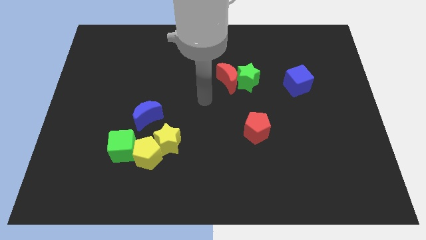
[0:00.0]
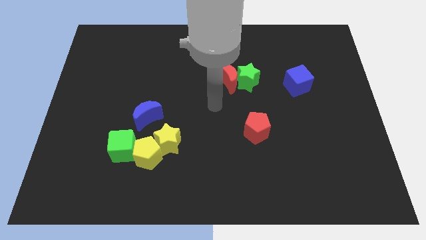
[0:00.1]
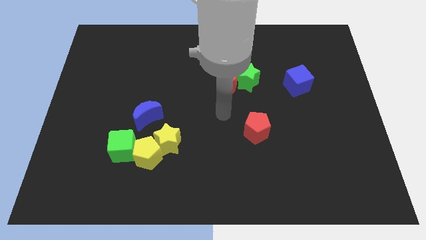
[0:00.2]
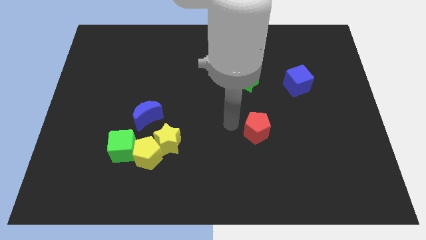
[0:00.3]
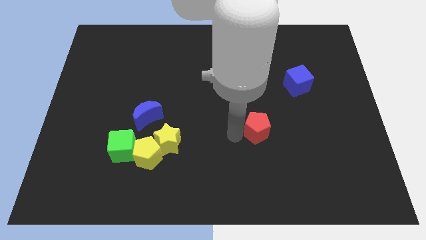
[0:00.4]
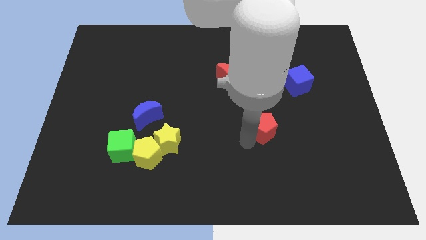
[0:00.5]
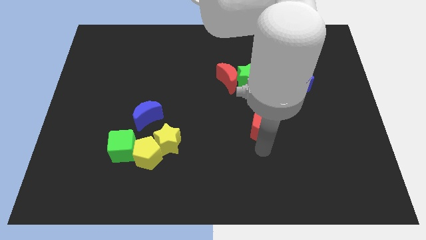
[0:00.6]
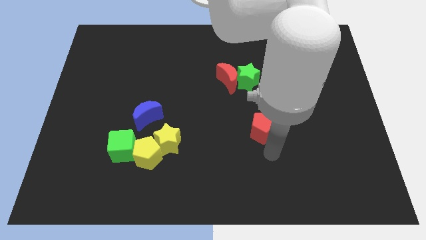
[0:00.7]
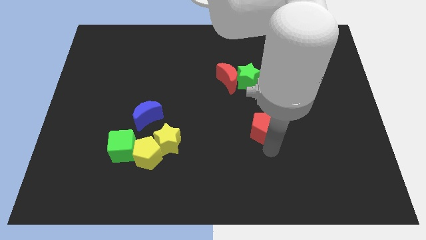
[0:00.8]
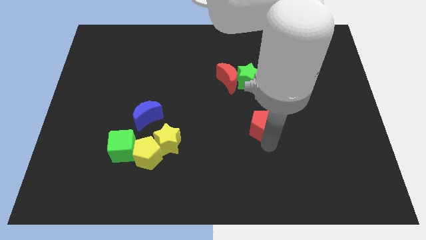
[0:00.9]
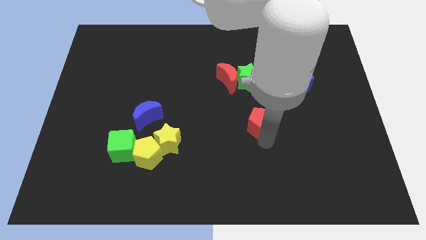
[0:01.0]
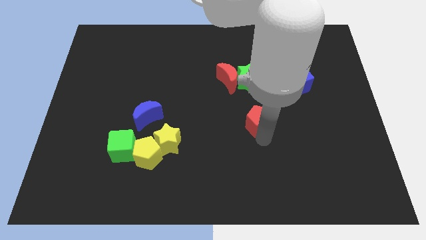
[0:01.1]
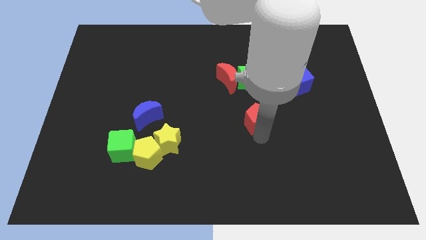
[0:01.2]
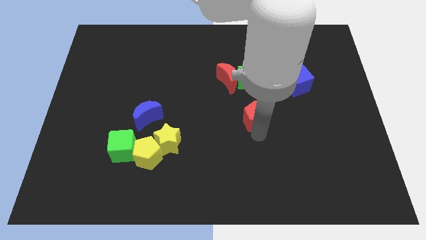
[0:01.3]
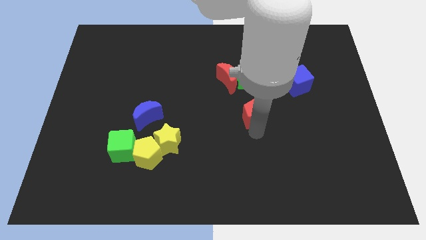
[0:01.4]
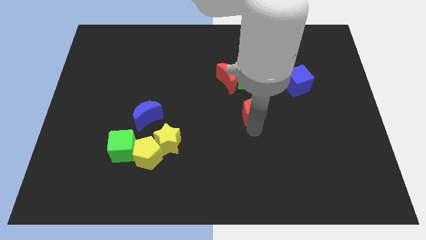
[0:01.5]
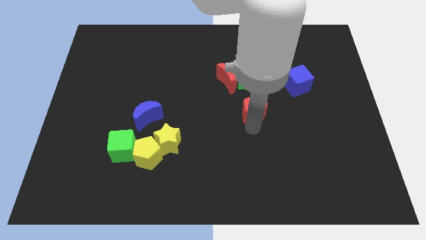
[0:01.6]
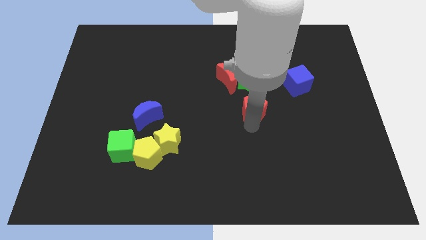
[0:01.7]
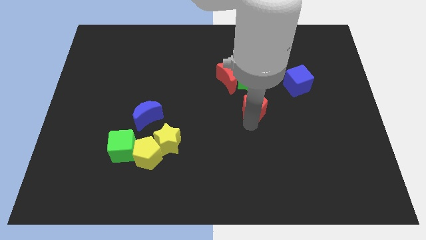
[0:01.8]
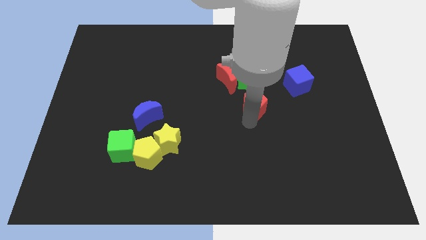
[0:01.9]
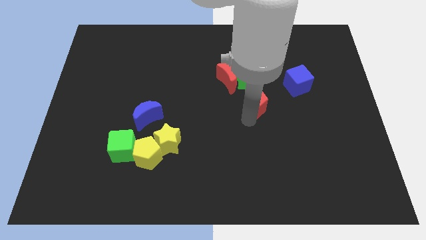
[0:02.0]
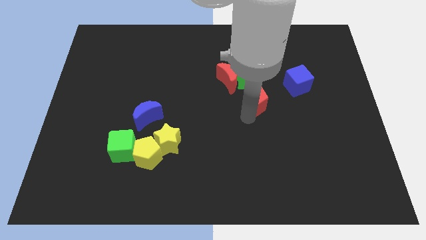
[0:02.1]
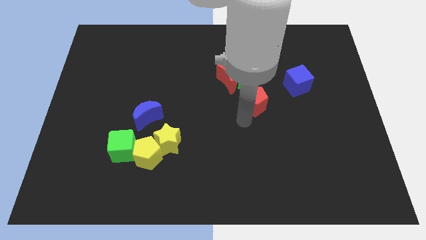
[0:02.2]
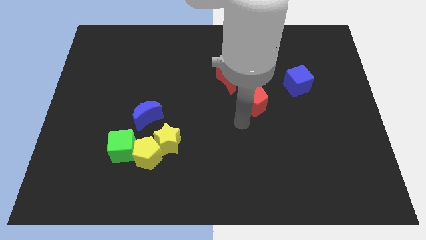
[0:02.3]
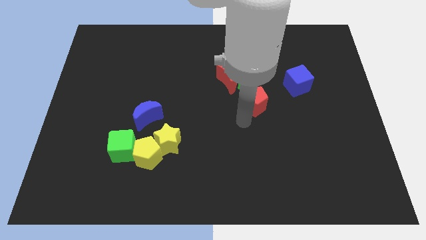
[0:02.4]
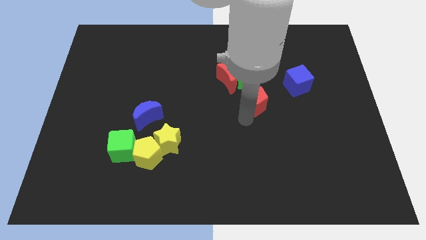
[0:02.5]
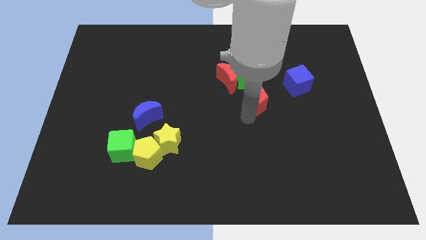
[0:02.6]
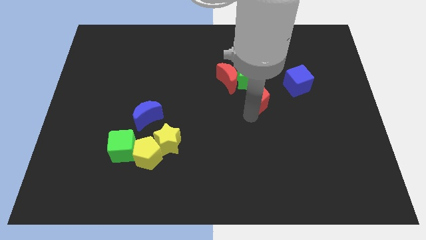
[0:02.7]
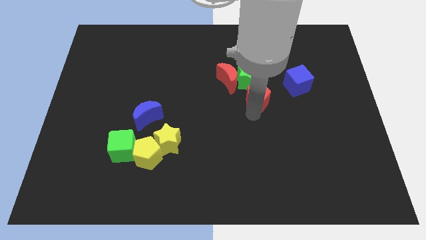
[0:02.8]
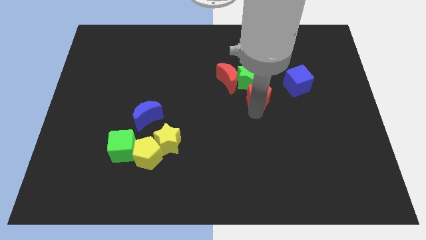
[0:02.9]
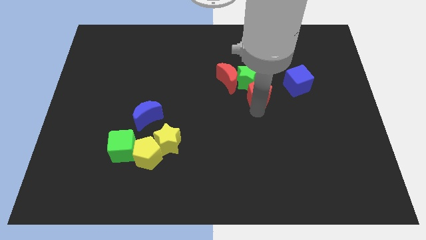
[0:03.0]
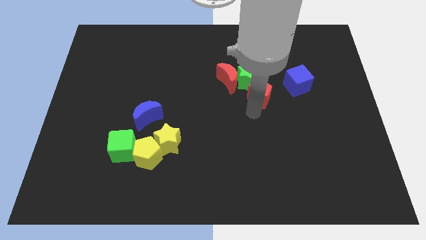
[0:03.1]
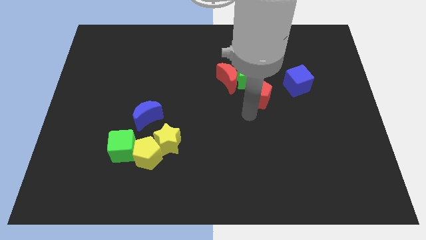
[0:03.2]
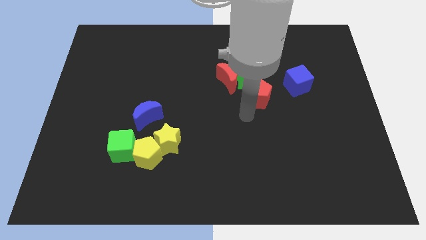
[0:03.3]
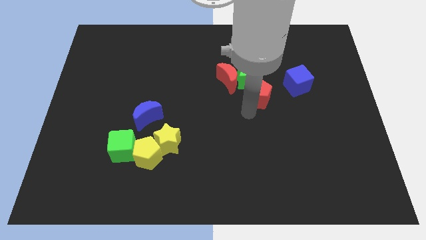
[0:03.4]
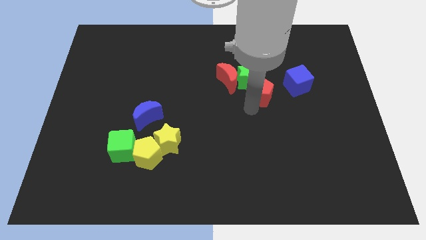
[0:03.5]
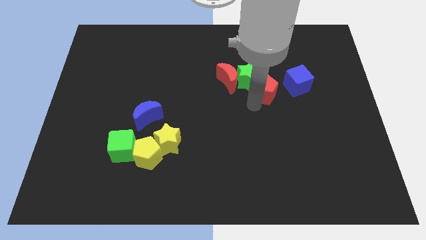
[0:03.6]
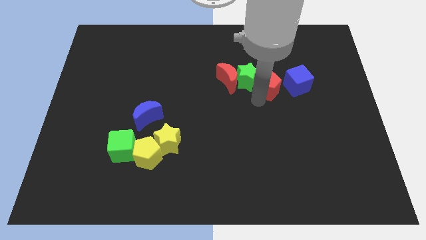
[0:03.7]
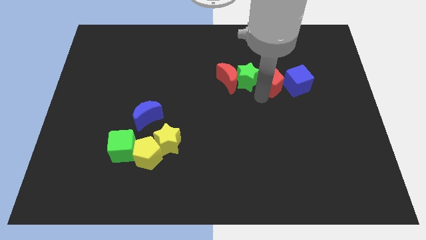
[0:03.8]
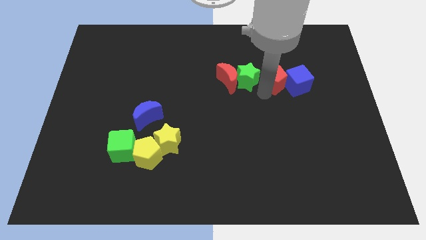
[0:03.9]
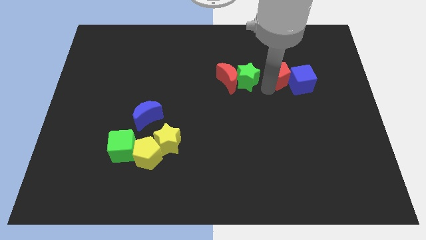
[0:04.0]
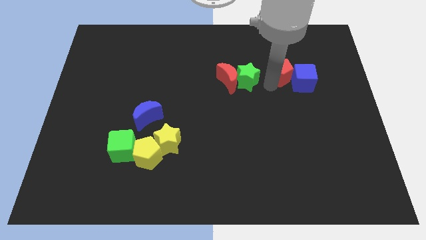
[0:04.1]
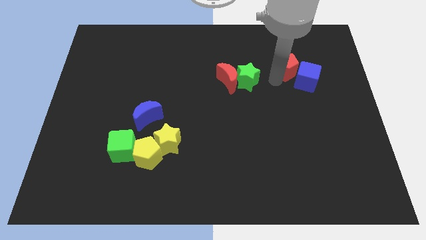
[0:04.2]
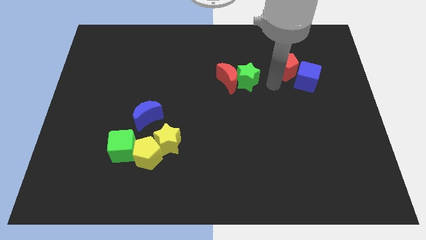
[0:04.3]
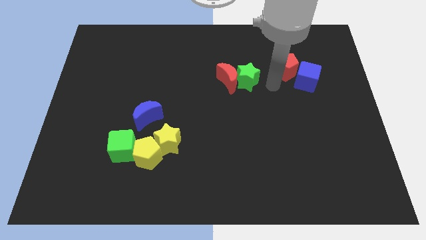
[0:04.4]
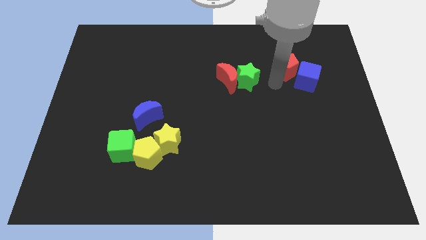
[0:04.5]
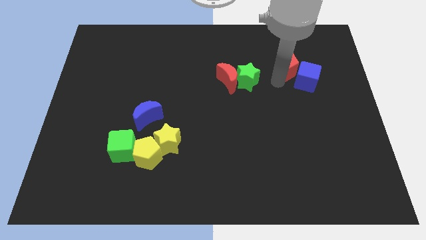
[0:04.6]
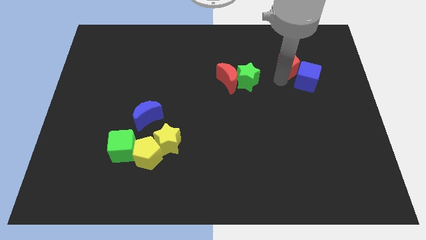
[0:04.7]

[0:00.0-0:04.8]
slide the red pentagon to the top side of the blue cube

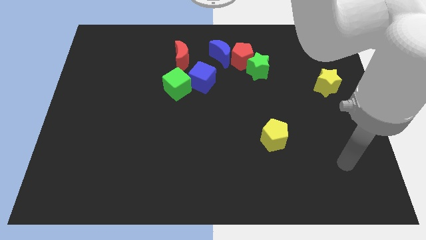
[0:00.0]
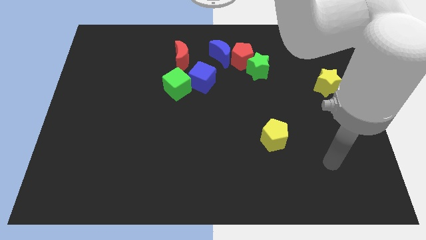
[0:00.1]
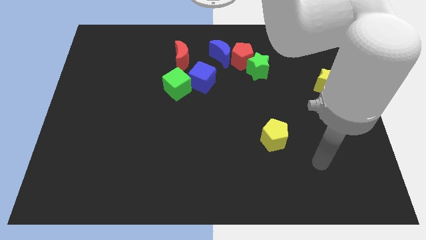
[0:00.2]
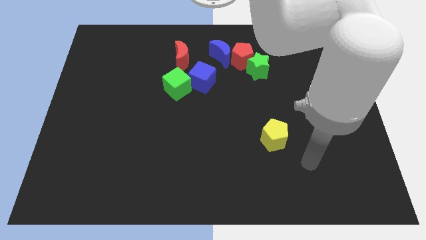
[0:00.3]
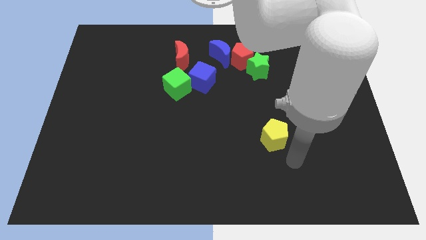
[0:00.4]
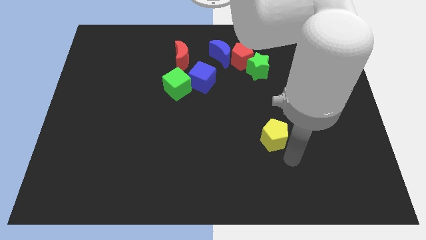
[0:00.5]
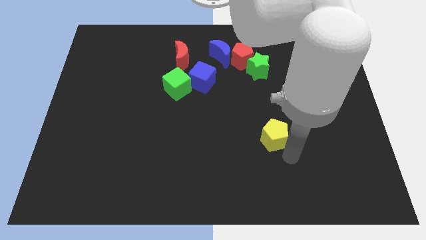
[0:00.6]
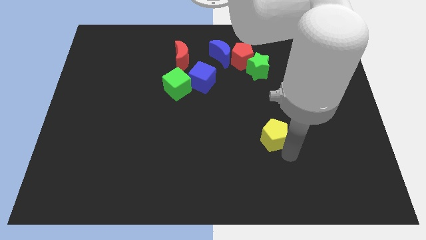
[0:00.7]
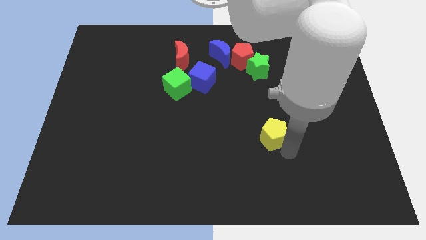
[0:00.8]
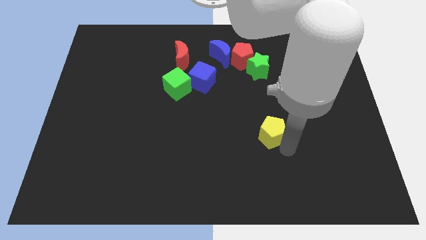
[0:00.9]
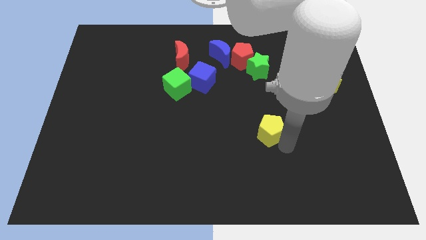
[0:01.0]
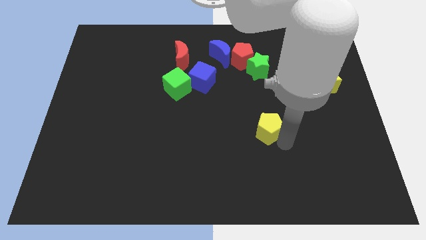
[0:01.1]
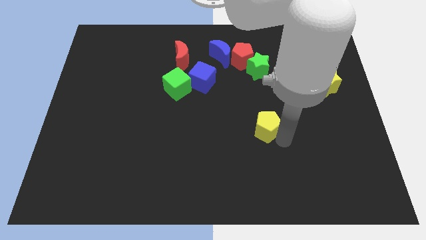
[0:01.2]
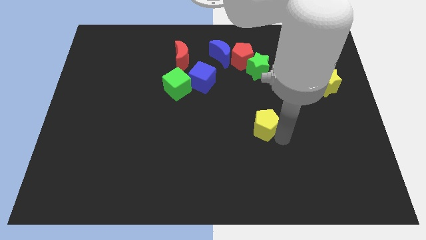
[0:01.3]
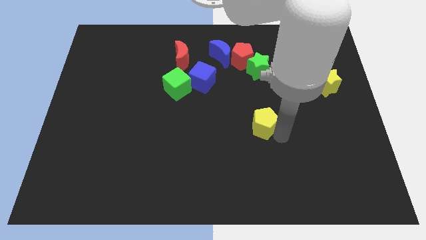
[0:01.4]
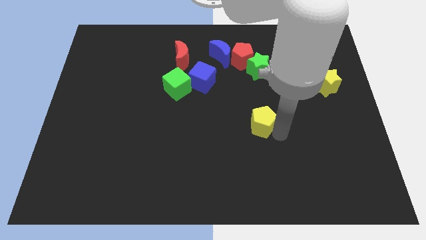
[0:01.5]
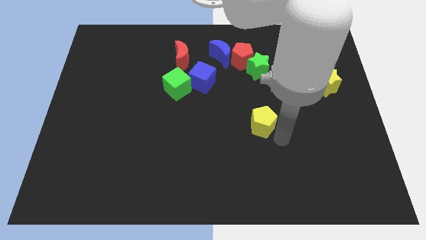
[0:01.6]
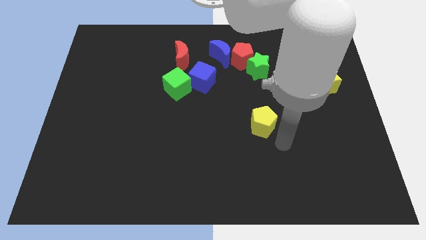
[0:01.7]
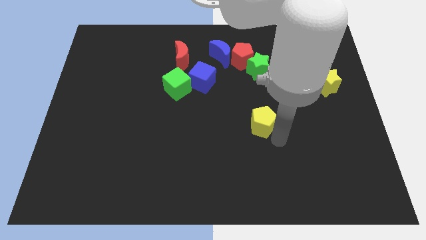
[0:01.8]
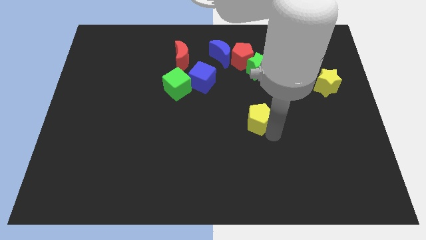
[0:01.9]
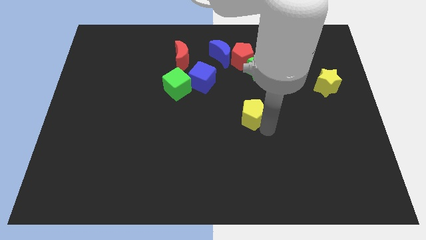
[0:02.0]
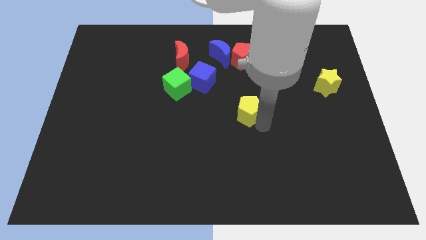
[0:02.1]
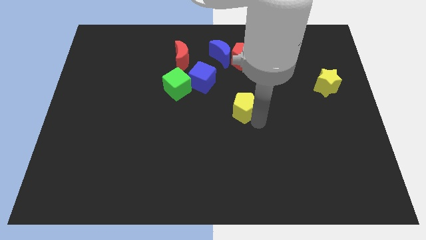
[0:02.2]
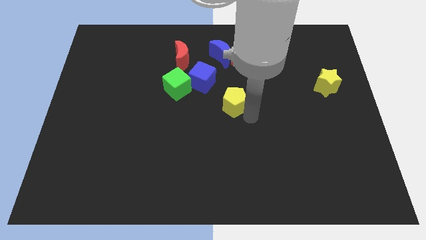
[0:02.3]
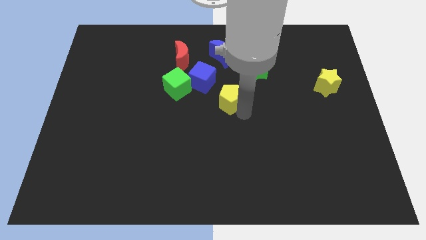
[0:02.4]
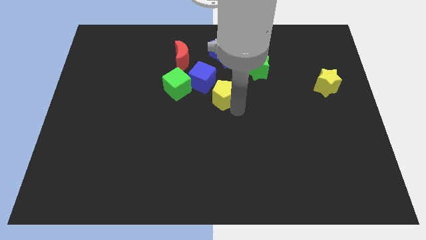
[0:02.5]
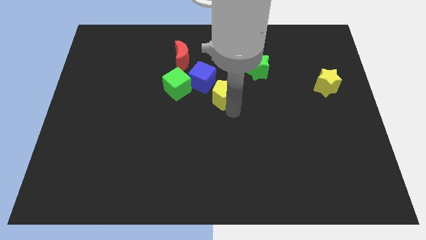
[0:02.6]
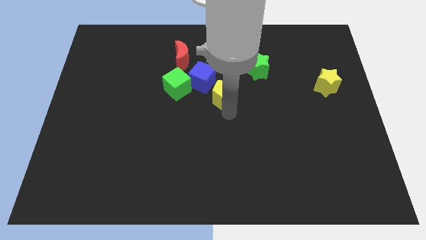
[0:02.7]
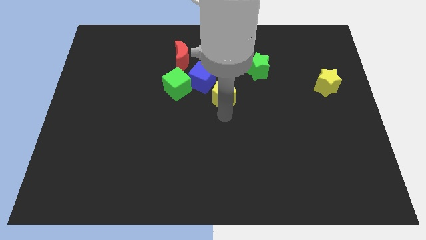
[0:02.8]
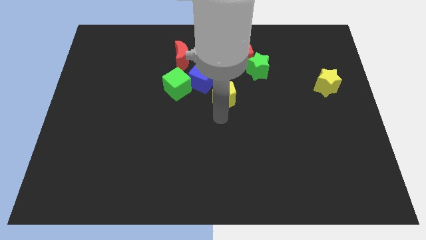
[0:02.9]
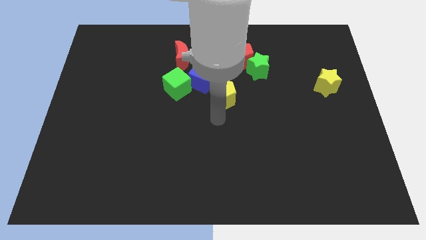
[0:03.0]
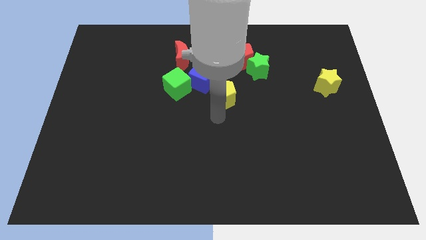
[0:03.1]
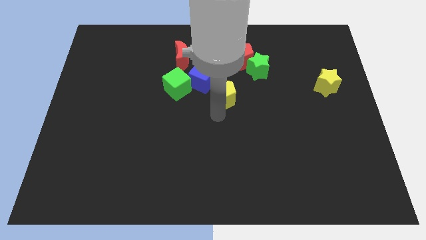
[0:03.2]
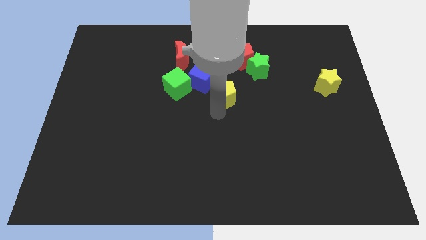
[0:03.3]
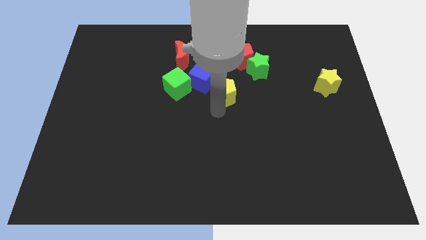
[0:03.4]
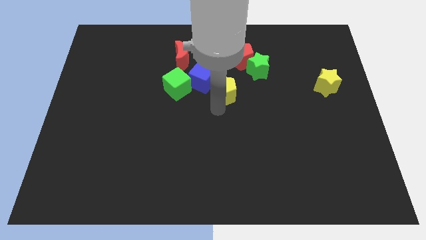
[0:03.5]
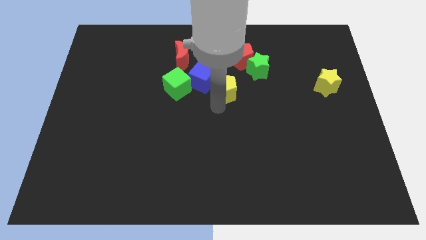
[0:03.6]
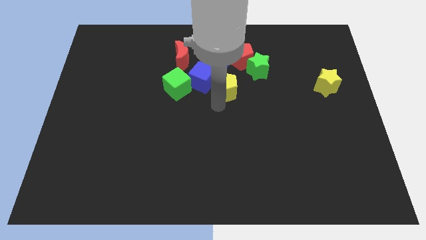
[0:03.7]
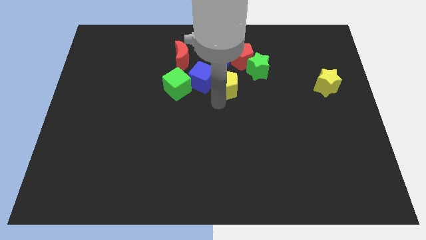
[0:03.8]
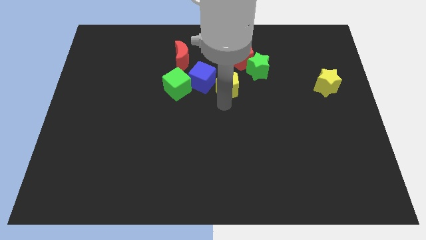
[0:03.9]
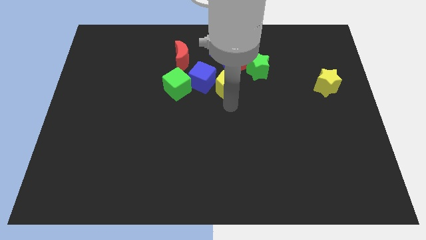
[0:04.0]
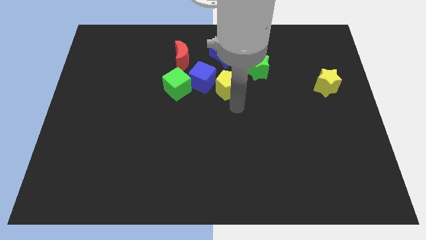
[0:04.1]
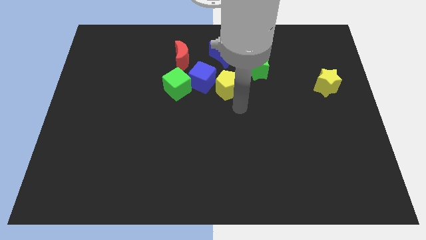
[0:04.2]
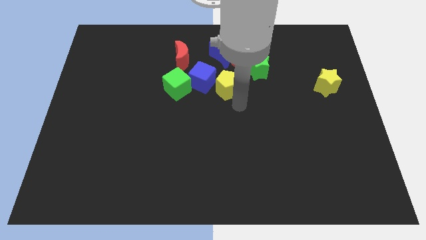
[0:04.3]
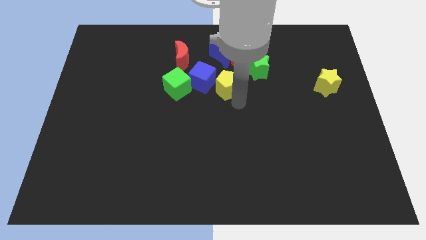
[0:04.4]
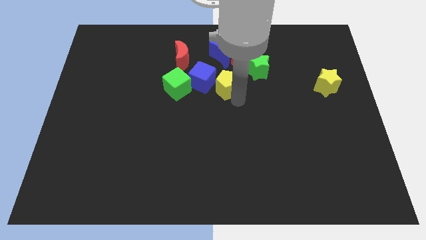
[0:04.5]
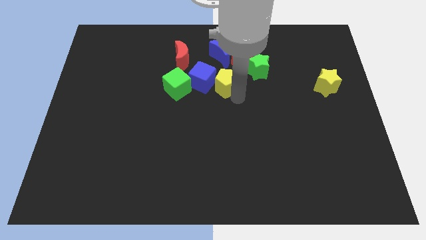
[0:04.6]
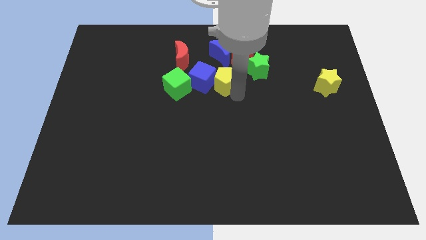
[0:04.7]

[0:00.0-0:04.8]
push the yellow pentagon to the left side of the green star
